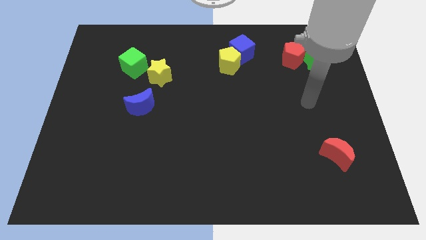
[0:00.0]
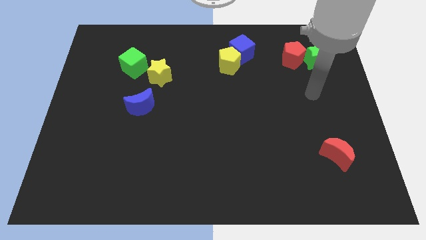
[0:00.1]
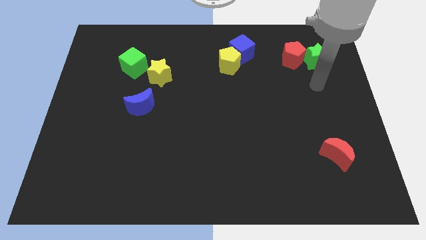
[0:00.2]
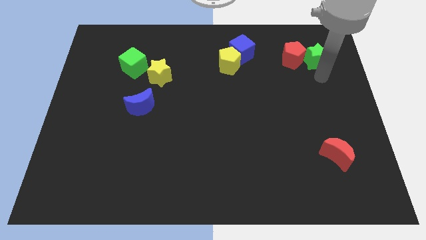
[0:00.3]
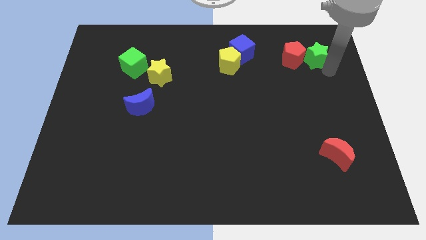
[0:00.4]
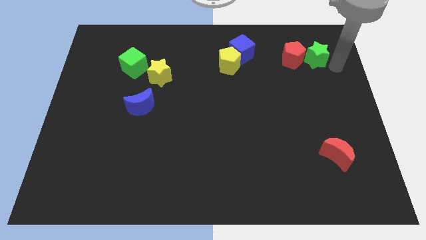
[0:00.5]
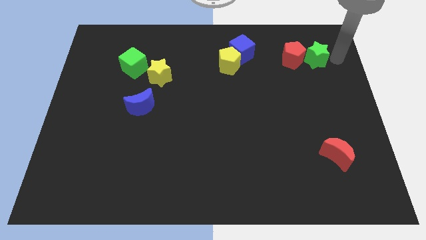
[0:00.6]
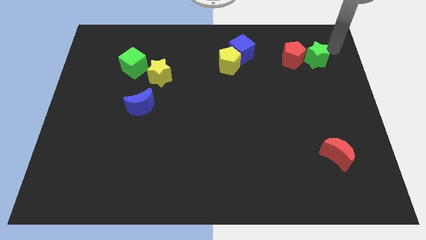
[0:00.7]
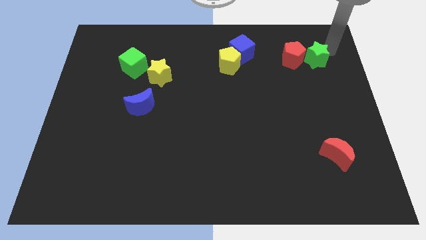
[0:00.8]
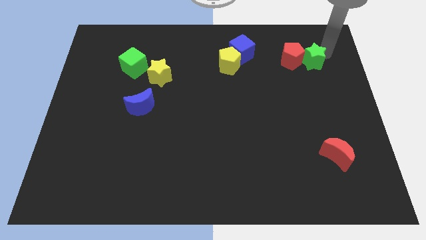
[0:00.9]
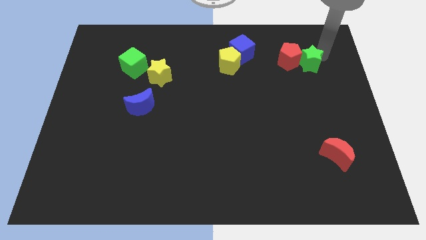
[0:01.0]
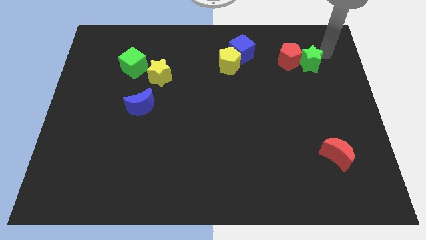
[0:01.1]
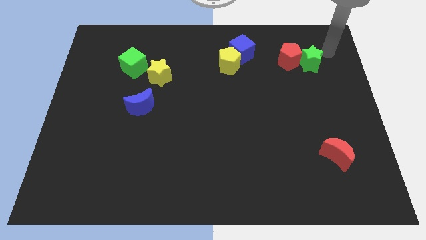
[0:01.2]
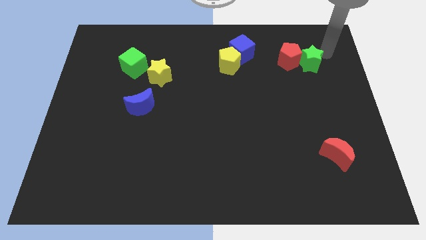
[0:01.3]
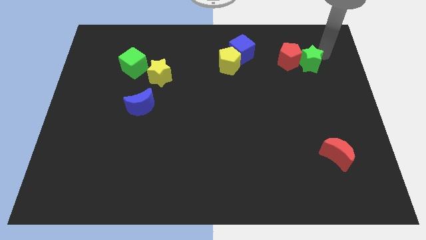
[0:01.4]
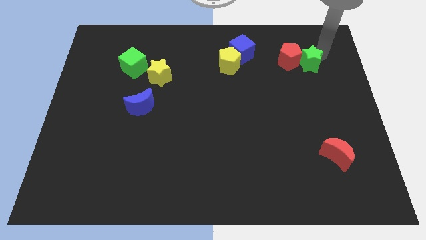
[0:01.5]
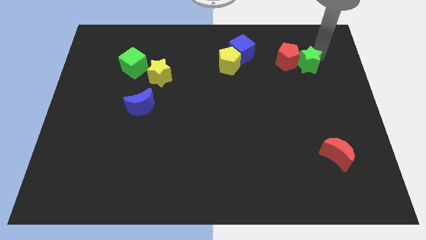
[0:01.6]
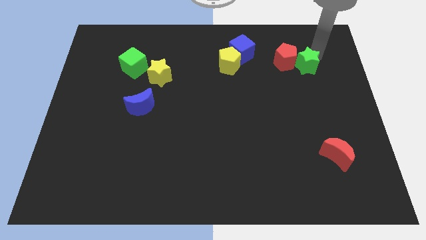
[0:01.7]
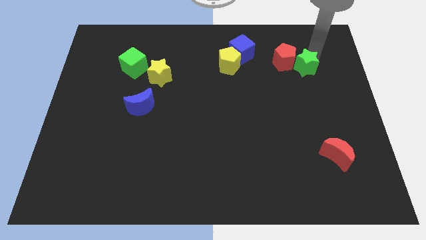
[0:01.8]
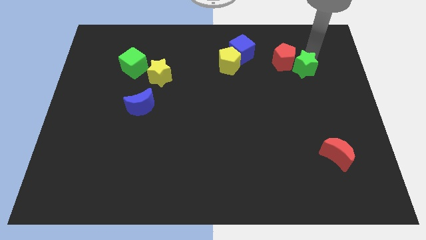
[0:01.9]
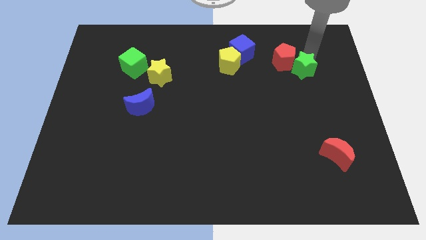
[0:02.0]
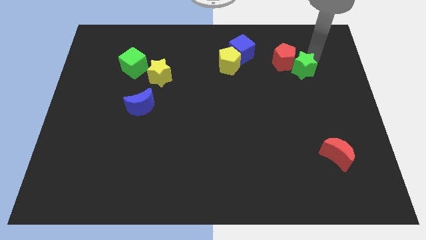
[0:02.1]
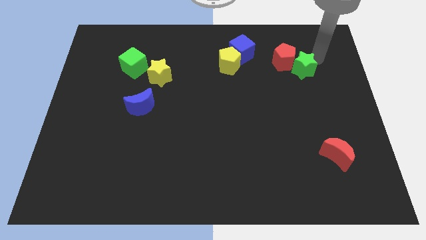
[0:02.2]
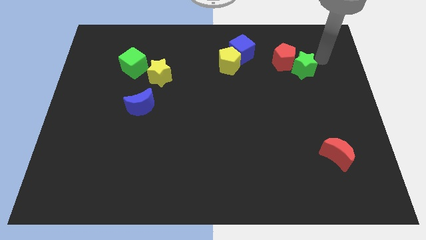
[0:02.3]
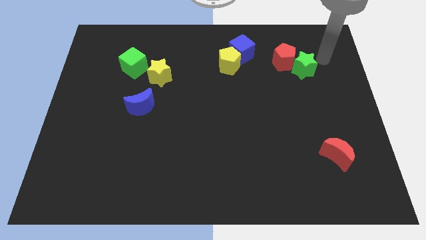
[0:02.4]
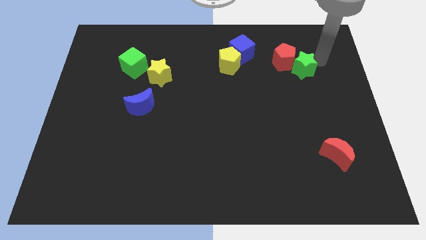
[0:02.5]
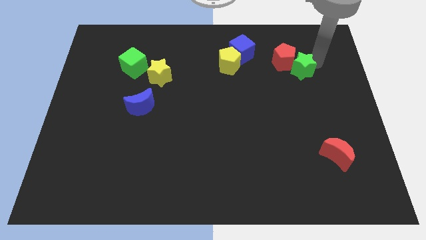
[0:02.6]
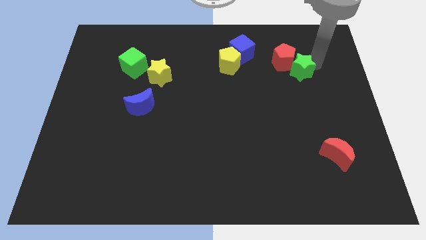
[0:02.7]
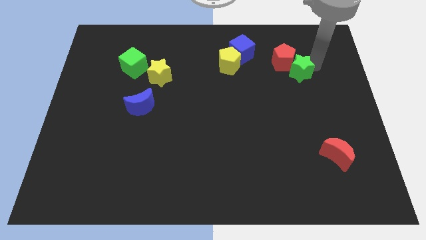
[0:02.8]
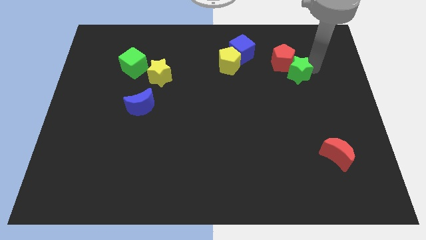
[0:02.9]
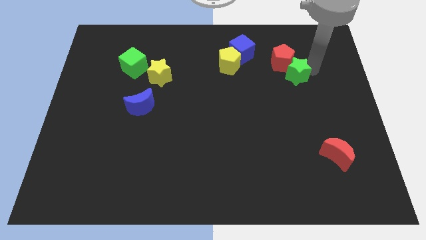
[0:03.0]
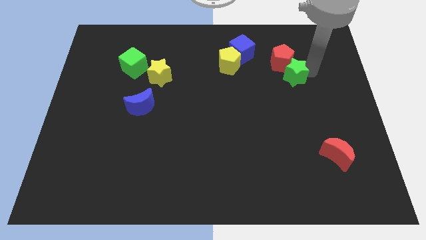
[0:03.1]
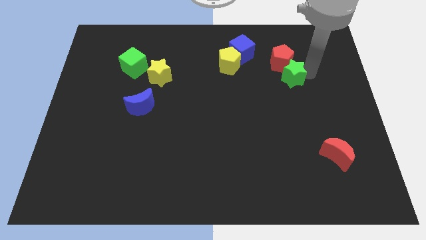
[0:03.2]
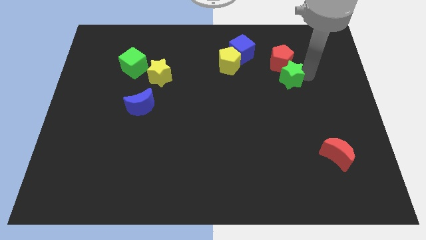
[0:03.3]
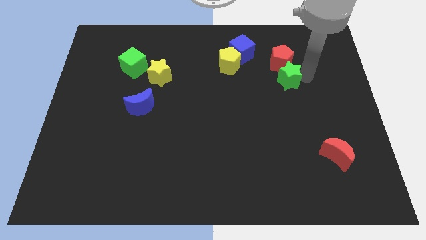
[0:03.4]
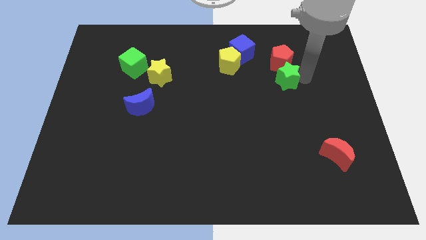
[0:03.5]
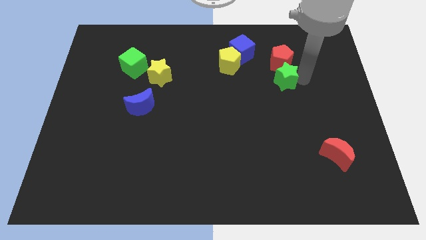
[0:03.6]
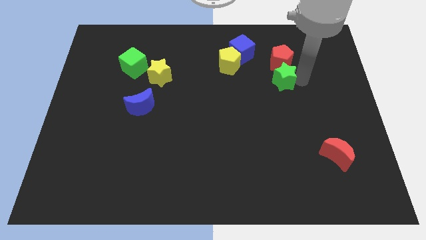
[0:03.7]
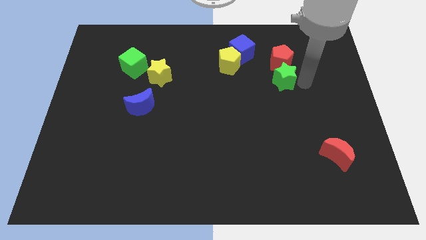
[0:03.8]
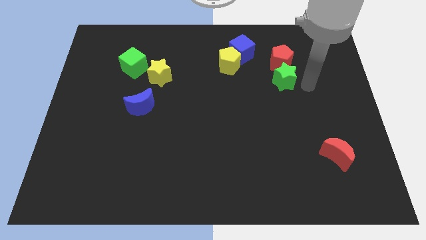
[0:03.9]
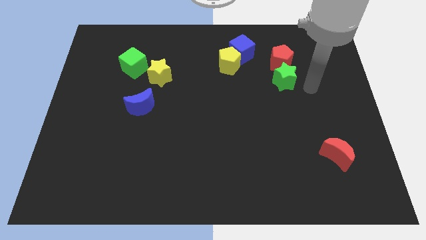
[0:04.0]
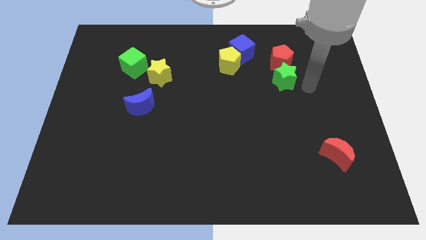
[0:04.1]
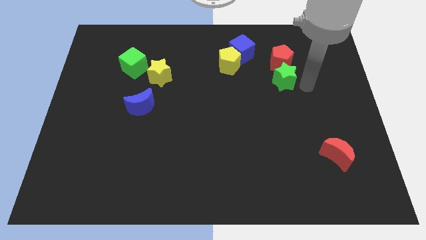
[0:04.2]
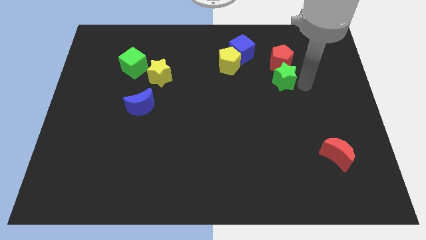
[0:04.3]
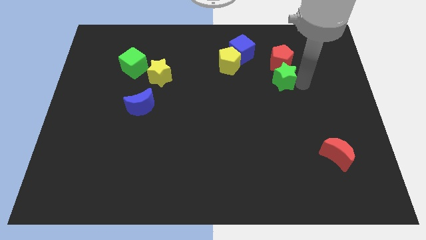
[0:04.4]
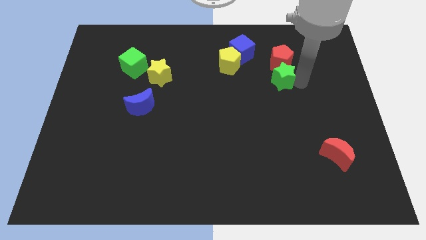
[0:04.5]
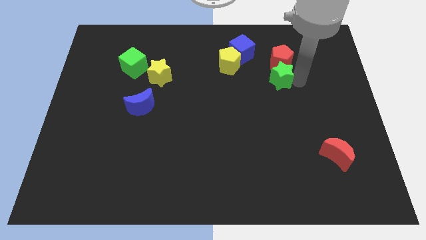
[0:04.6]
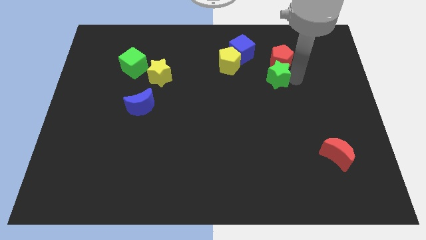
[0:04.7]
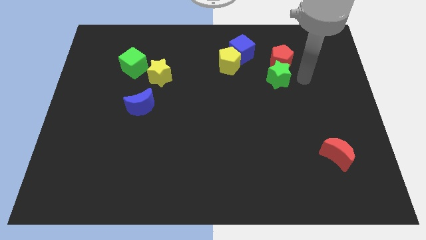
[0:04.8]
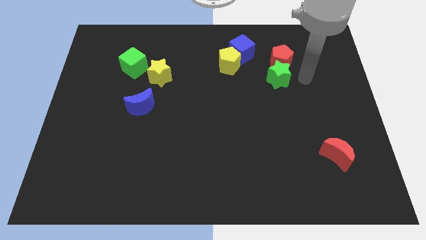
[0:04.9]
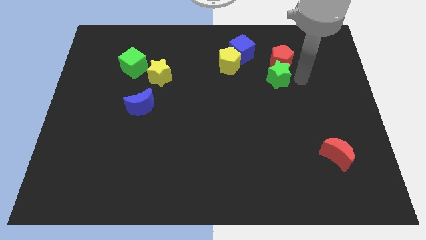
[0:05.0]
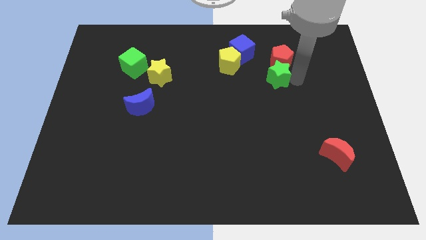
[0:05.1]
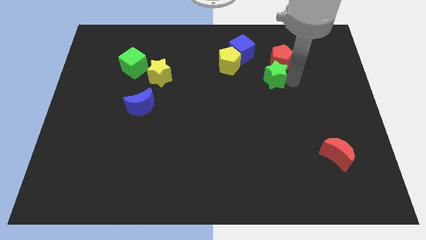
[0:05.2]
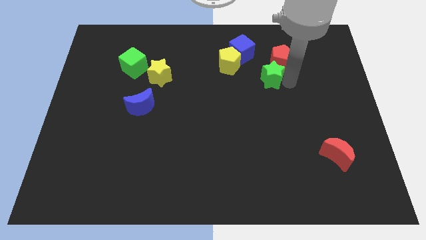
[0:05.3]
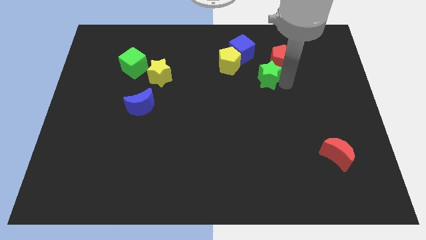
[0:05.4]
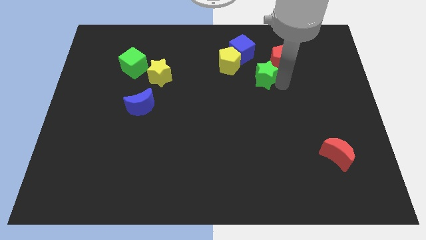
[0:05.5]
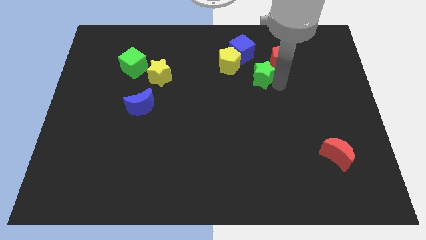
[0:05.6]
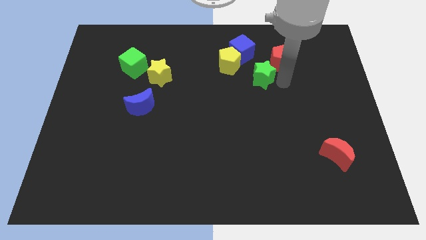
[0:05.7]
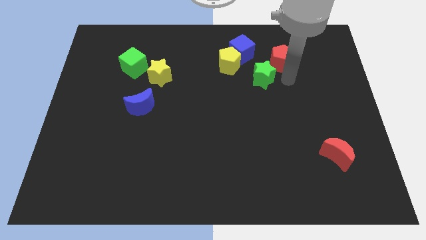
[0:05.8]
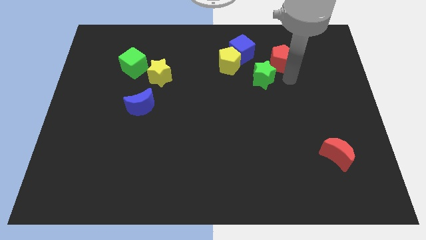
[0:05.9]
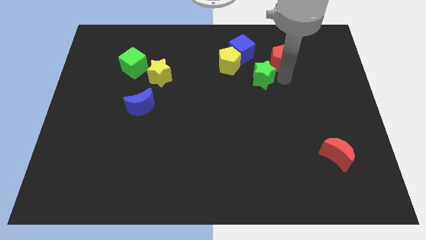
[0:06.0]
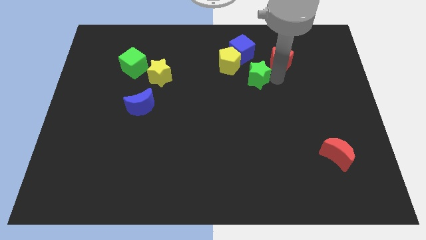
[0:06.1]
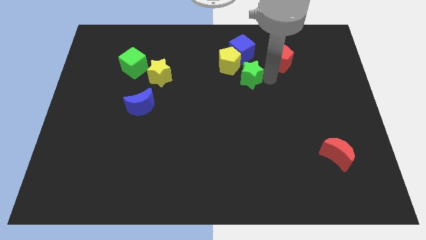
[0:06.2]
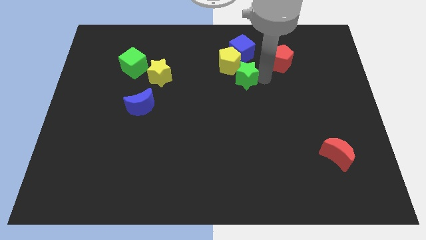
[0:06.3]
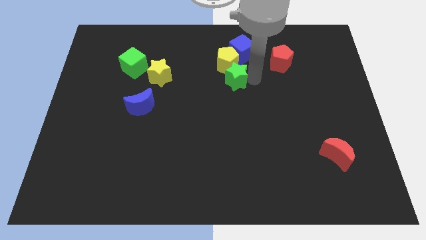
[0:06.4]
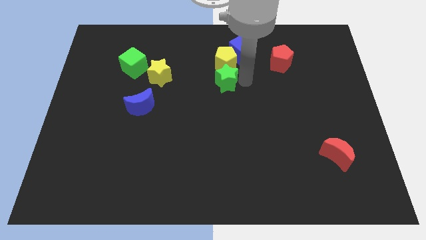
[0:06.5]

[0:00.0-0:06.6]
push the green star left

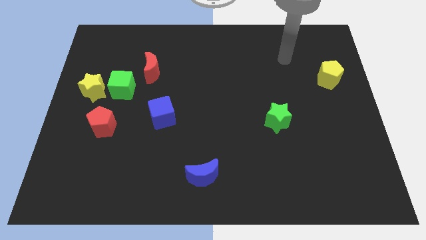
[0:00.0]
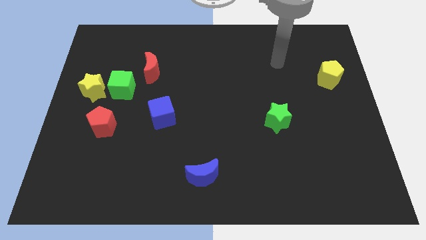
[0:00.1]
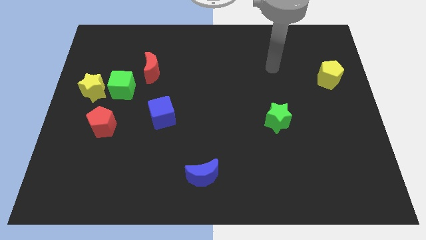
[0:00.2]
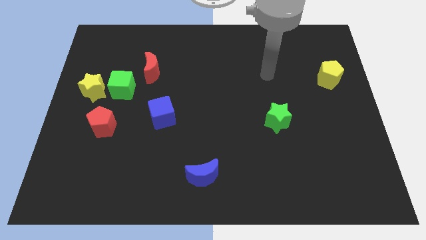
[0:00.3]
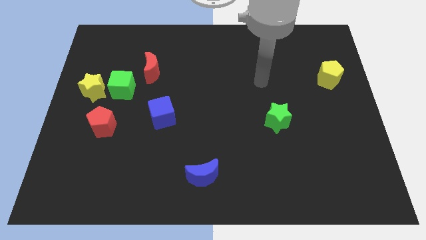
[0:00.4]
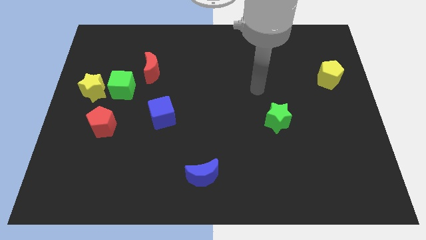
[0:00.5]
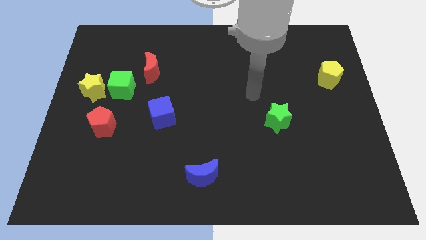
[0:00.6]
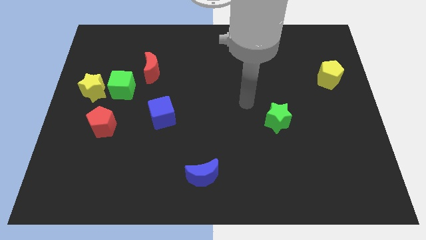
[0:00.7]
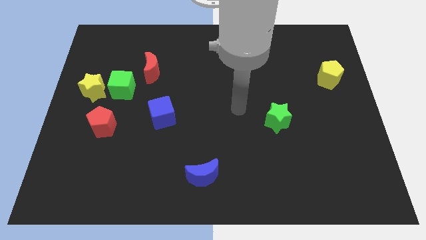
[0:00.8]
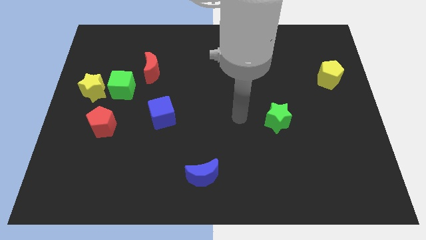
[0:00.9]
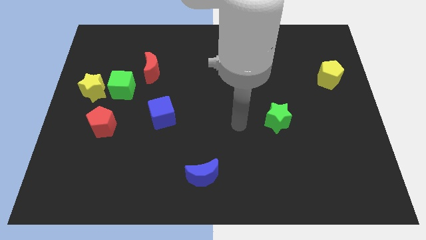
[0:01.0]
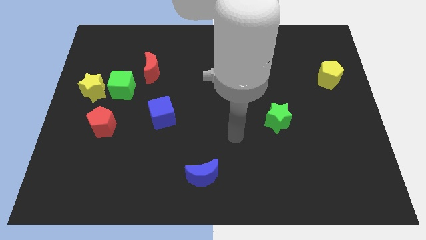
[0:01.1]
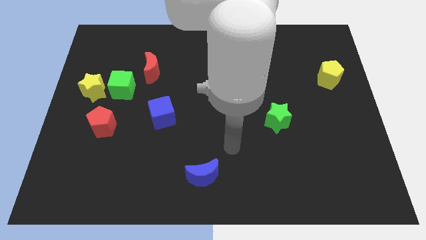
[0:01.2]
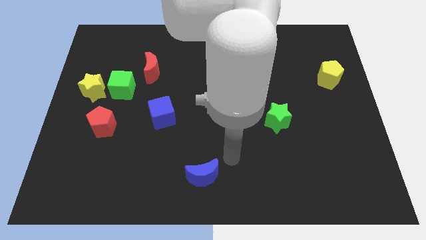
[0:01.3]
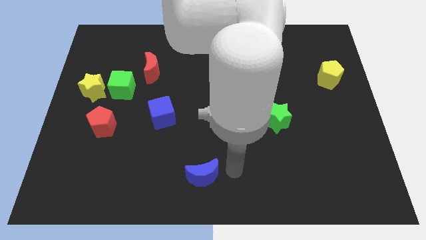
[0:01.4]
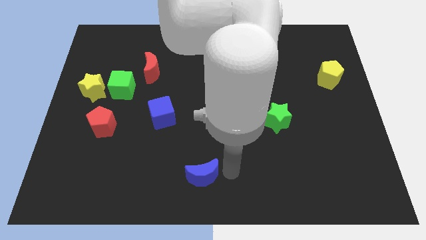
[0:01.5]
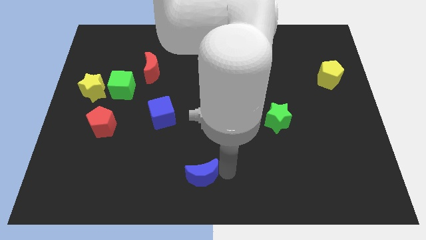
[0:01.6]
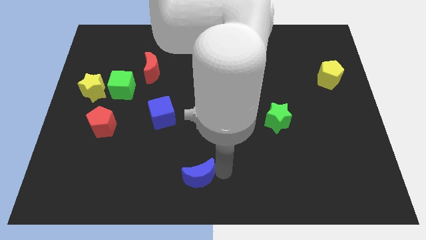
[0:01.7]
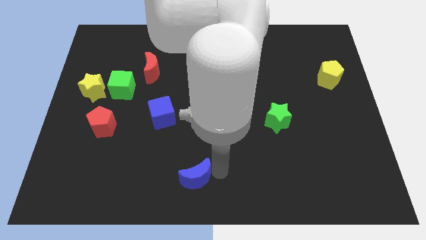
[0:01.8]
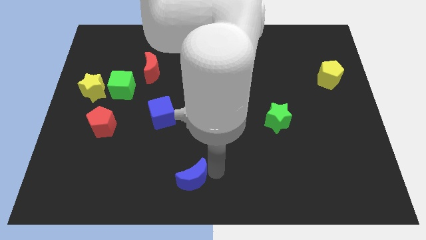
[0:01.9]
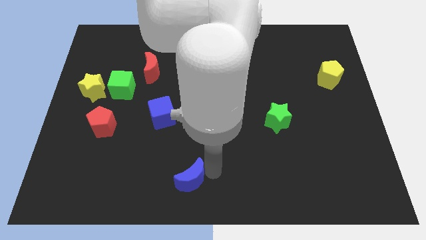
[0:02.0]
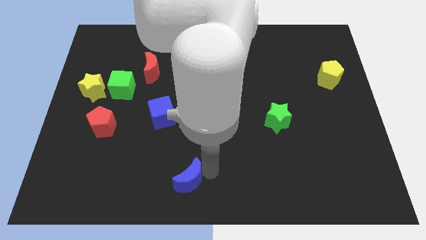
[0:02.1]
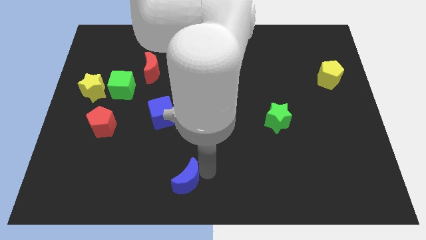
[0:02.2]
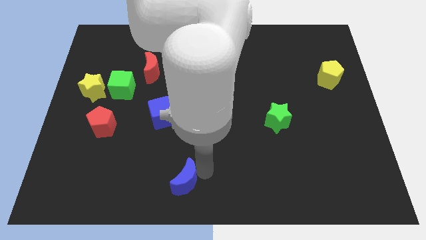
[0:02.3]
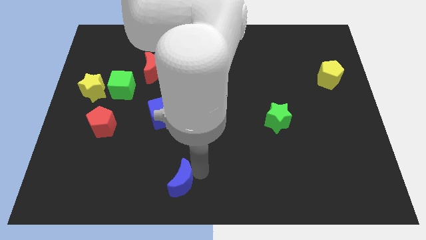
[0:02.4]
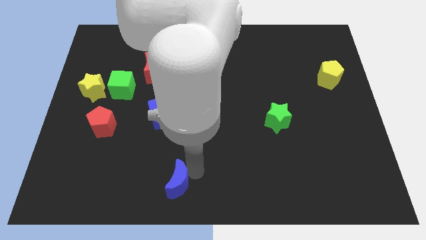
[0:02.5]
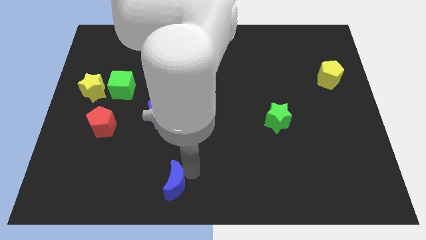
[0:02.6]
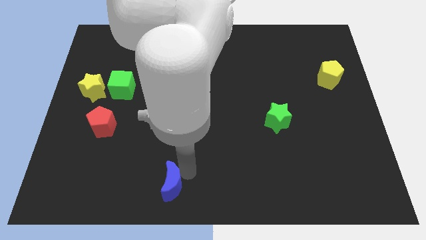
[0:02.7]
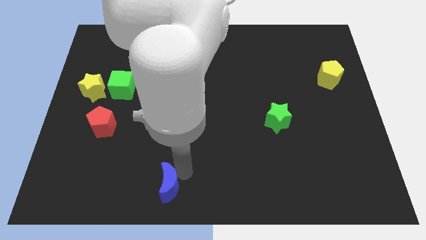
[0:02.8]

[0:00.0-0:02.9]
slightly move the blue moon left
